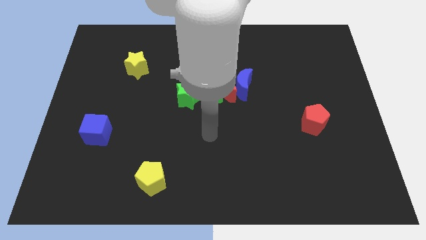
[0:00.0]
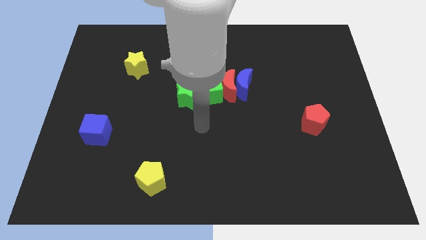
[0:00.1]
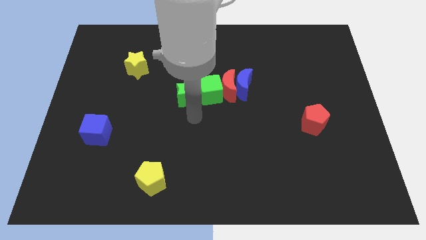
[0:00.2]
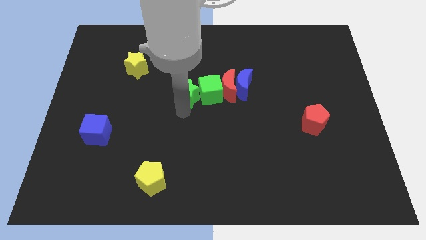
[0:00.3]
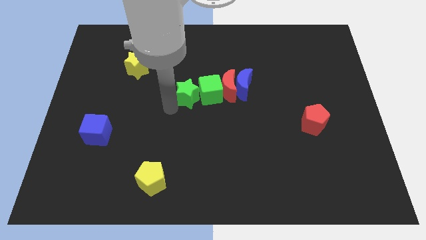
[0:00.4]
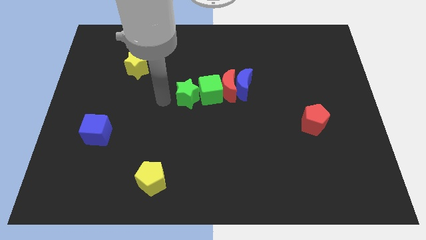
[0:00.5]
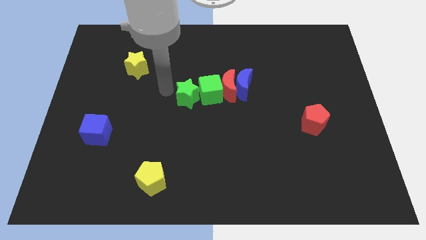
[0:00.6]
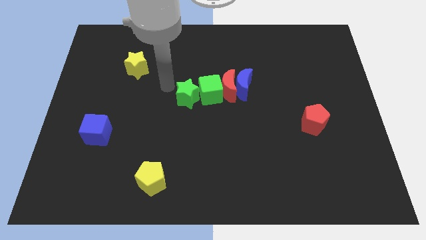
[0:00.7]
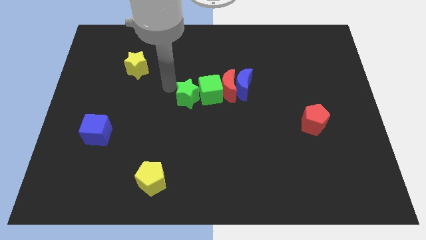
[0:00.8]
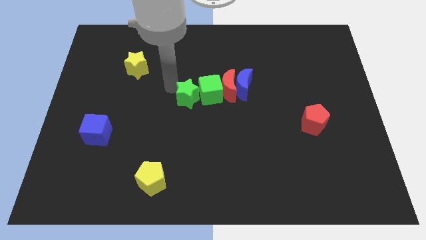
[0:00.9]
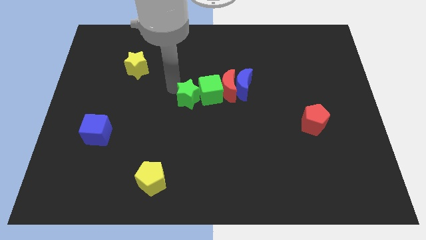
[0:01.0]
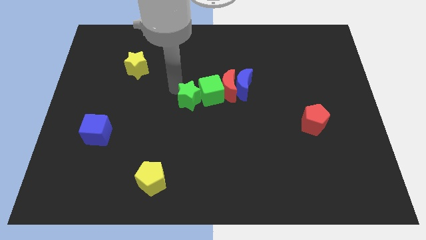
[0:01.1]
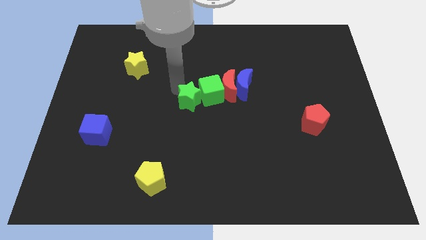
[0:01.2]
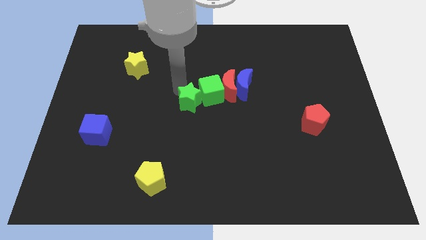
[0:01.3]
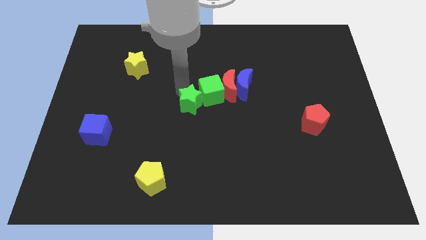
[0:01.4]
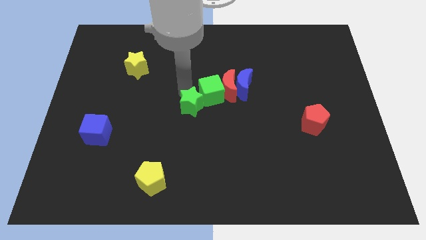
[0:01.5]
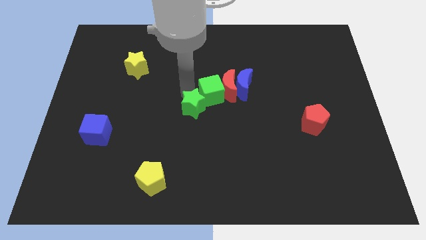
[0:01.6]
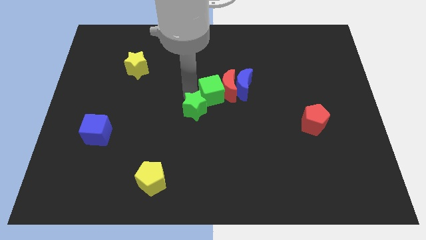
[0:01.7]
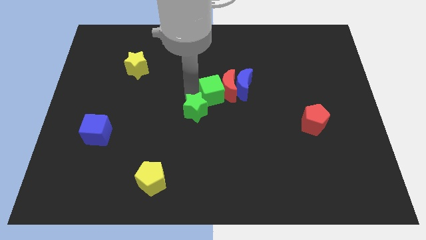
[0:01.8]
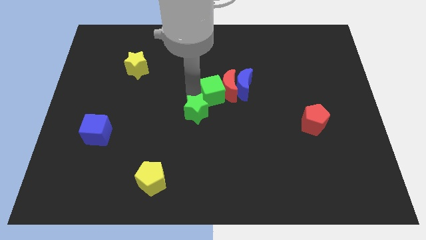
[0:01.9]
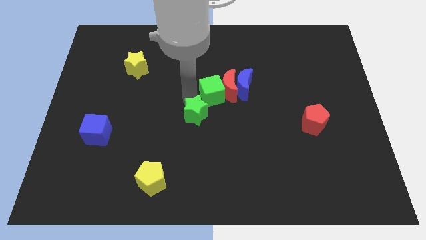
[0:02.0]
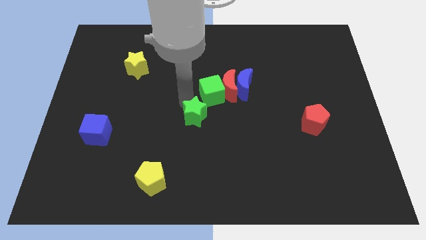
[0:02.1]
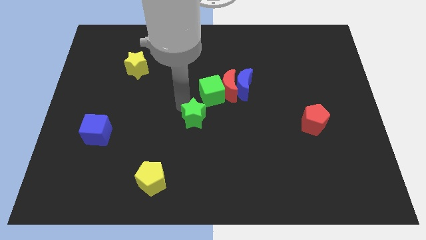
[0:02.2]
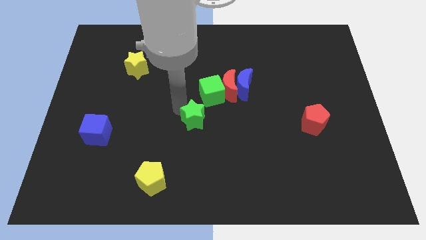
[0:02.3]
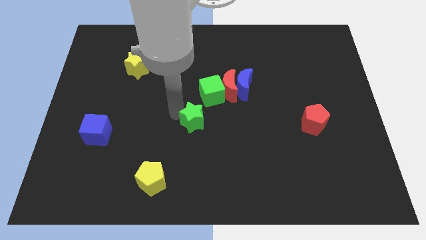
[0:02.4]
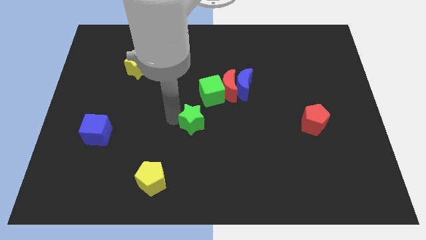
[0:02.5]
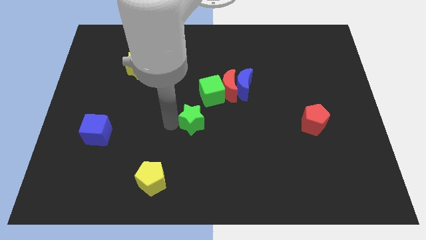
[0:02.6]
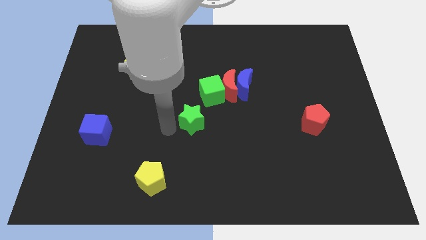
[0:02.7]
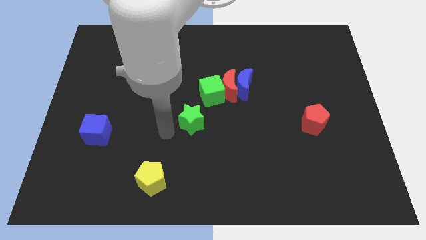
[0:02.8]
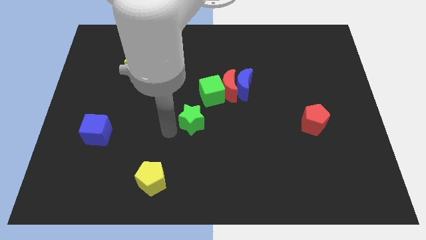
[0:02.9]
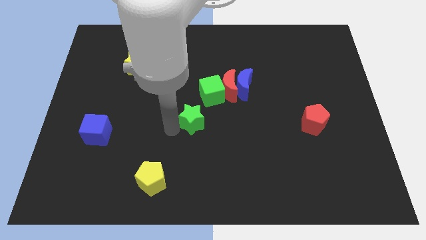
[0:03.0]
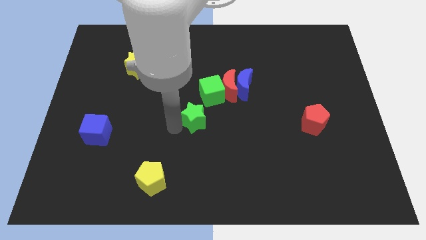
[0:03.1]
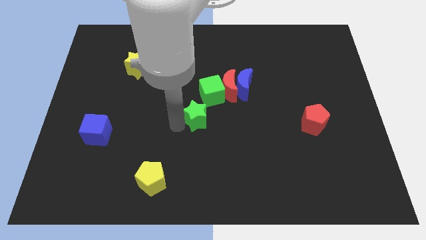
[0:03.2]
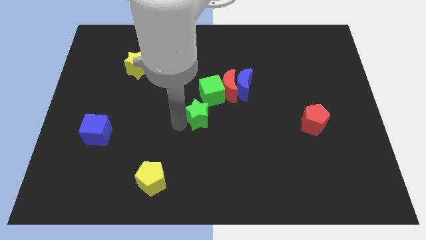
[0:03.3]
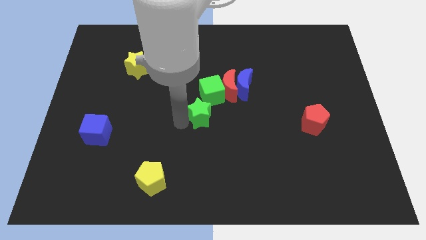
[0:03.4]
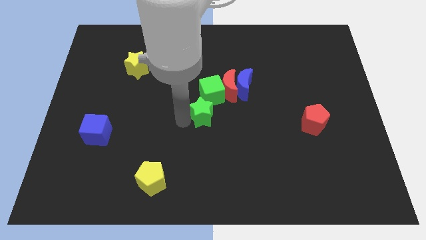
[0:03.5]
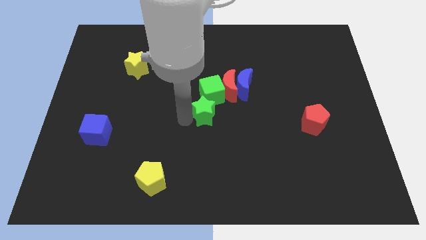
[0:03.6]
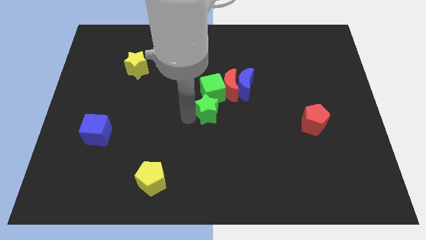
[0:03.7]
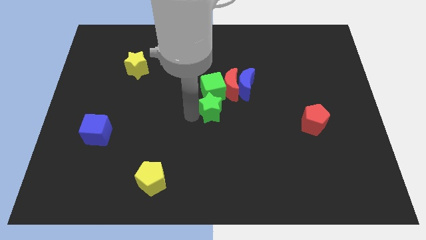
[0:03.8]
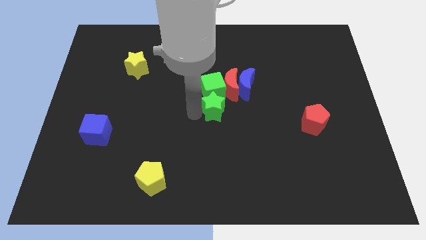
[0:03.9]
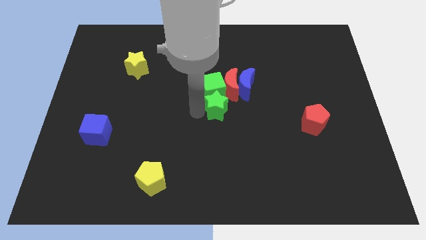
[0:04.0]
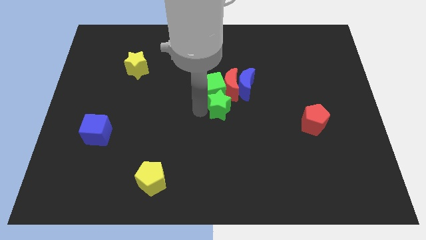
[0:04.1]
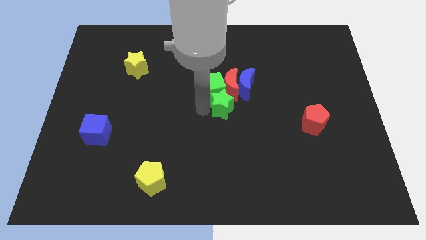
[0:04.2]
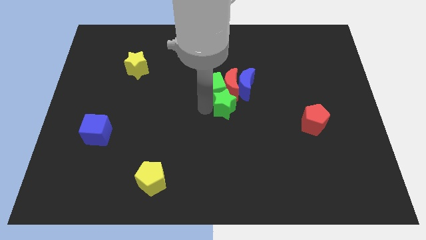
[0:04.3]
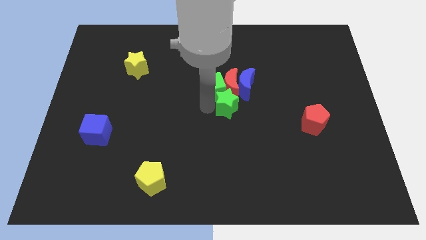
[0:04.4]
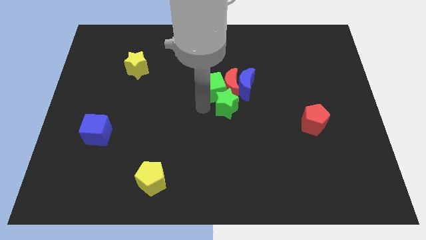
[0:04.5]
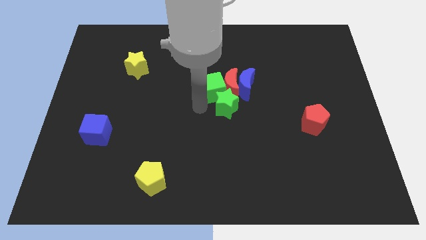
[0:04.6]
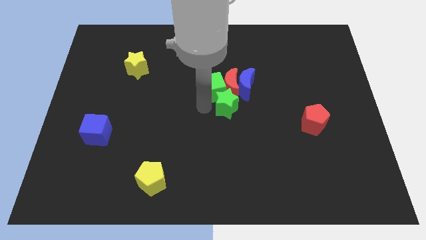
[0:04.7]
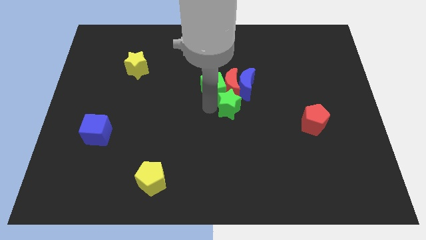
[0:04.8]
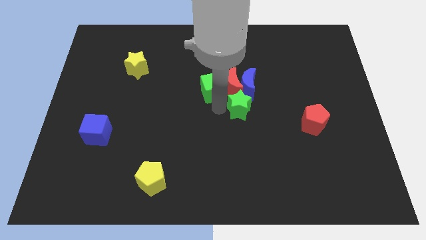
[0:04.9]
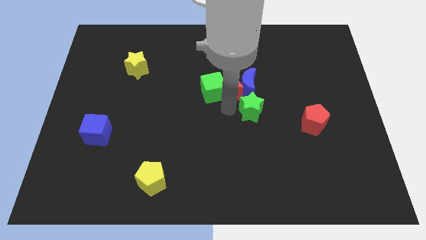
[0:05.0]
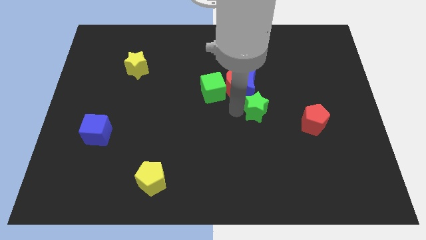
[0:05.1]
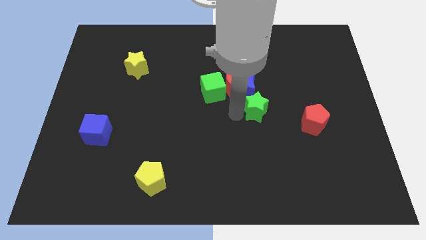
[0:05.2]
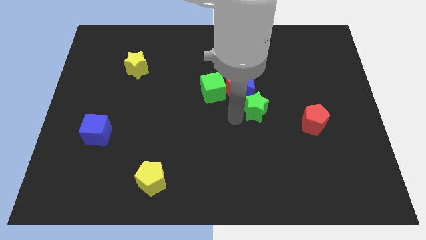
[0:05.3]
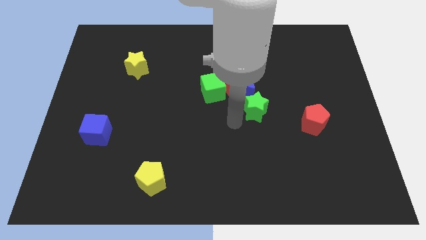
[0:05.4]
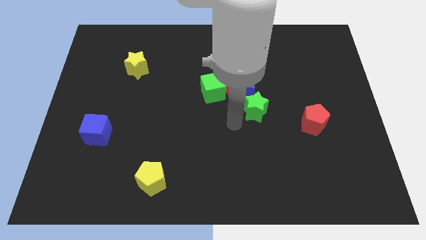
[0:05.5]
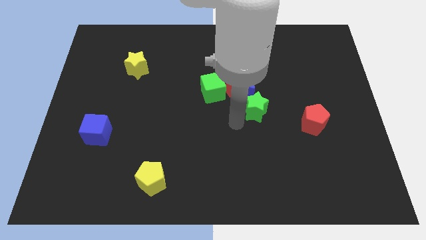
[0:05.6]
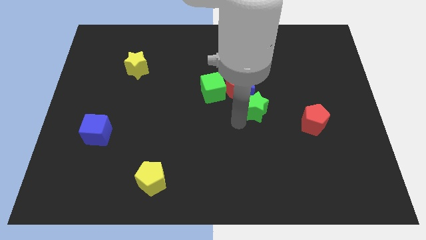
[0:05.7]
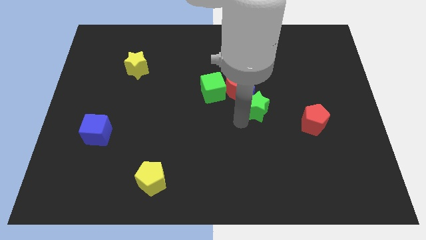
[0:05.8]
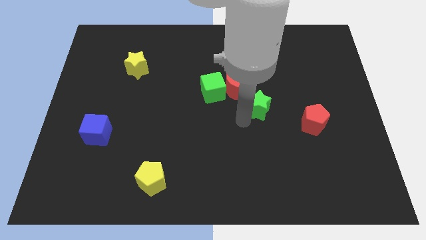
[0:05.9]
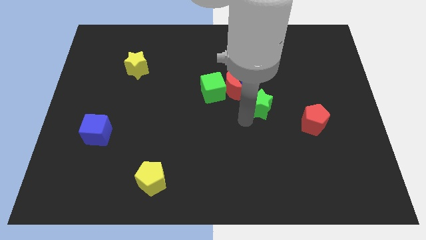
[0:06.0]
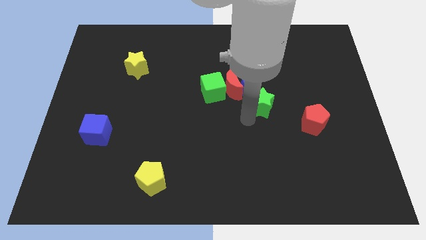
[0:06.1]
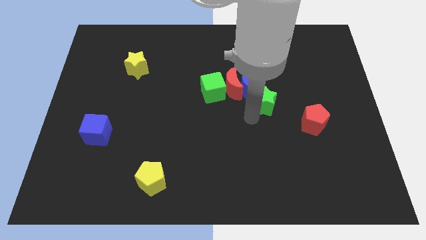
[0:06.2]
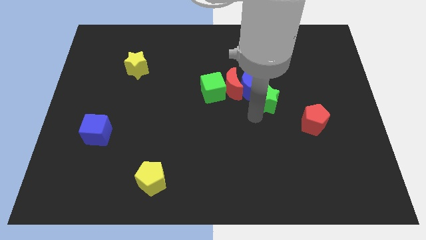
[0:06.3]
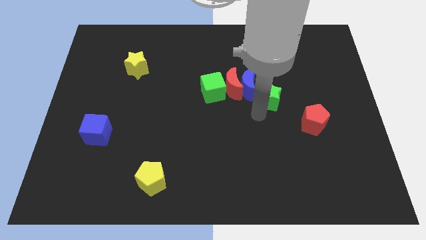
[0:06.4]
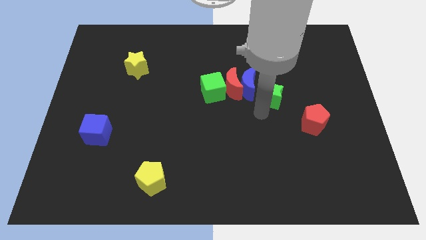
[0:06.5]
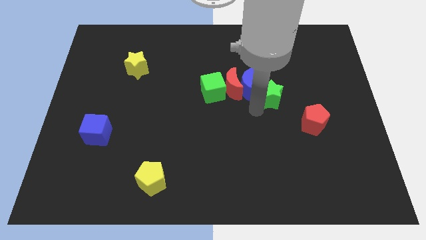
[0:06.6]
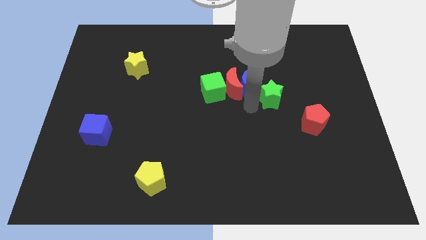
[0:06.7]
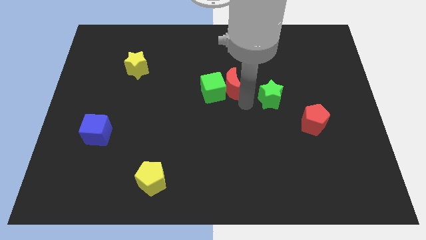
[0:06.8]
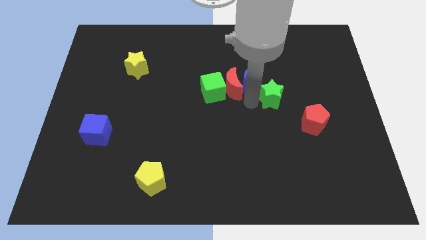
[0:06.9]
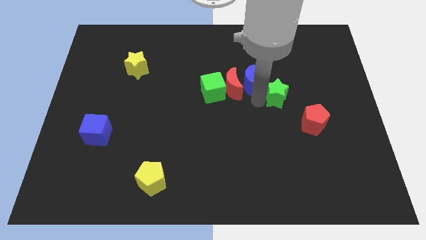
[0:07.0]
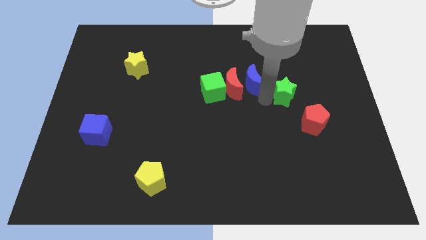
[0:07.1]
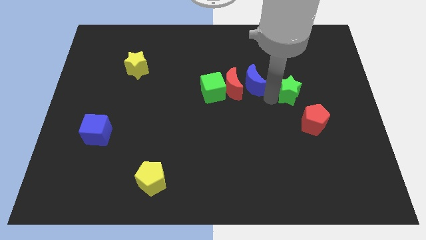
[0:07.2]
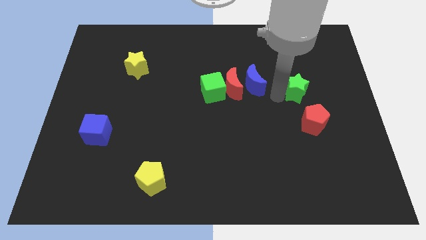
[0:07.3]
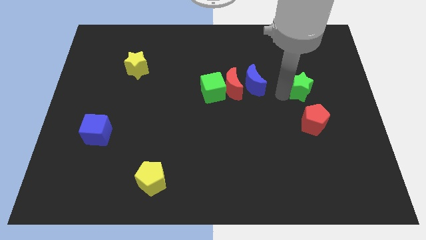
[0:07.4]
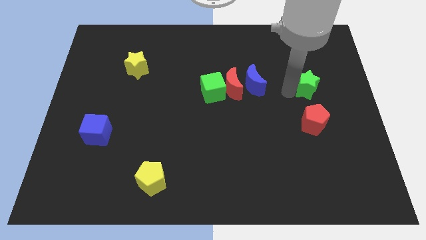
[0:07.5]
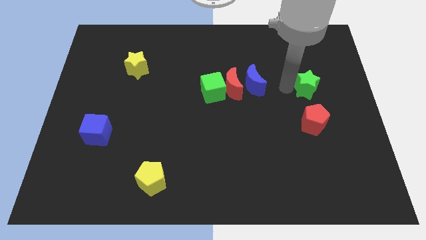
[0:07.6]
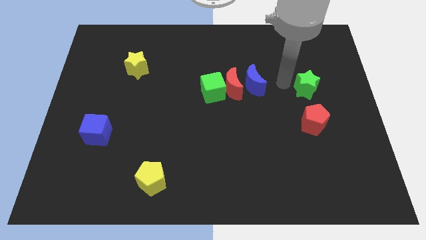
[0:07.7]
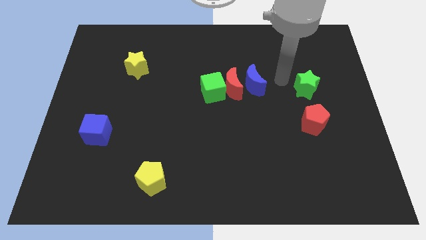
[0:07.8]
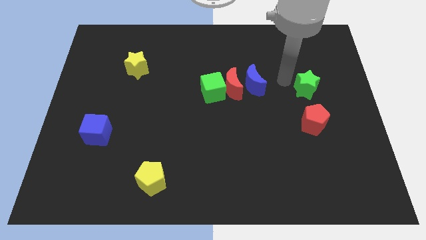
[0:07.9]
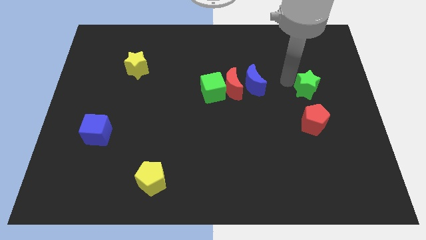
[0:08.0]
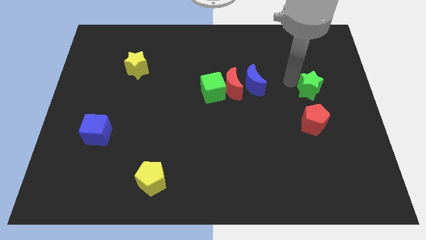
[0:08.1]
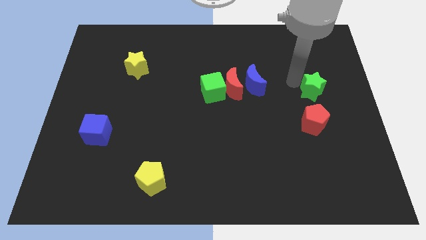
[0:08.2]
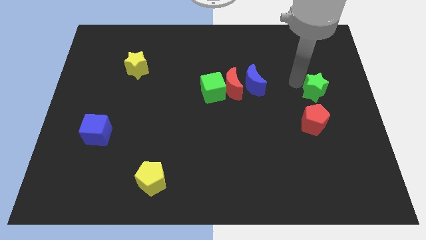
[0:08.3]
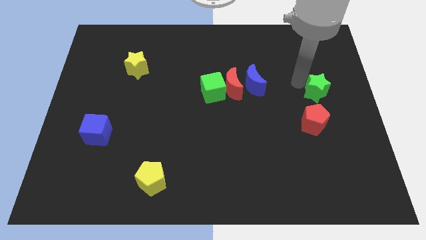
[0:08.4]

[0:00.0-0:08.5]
slide the green star to the right side of the board
